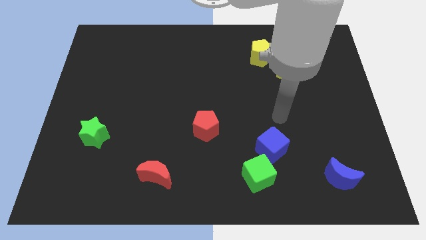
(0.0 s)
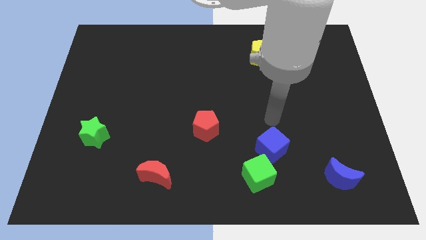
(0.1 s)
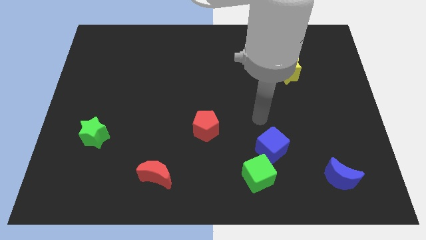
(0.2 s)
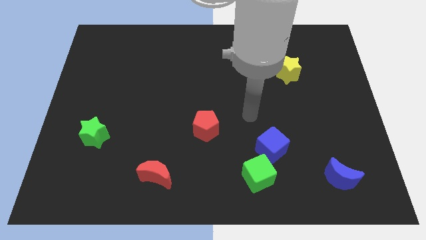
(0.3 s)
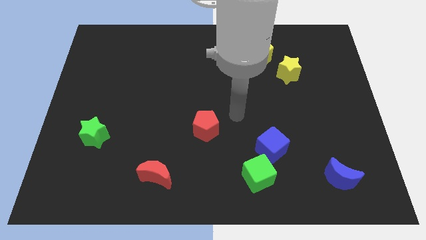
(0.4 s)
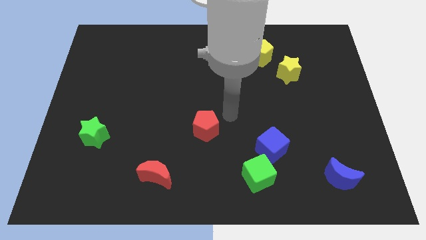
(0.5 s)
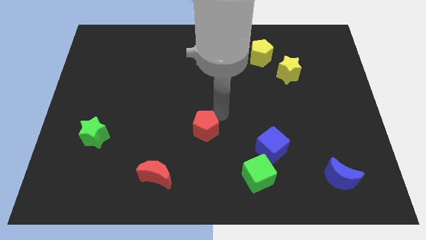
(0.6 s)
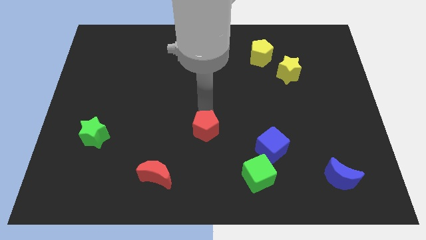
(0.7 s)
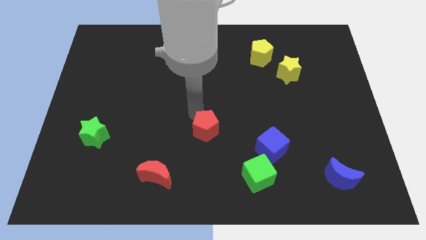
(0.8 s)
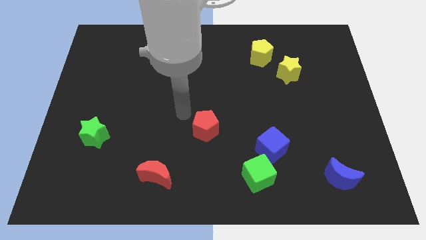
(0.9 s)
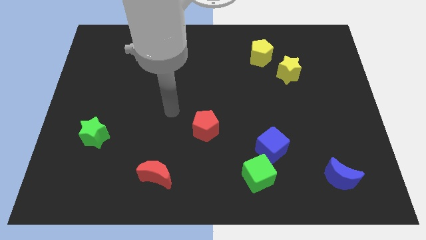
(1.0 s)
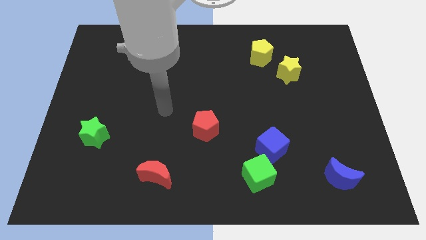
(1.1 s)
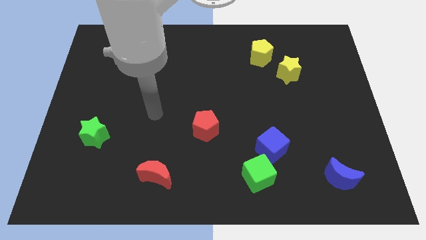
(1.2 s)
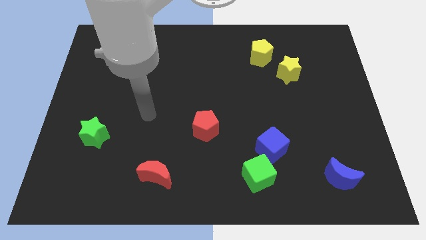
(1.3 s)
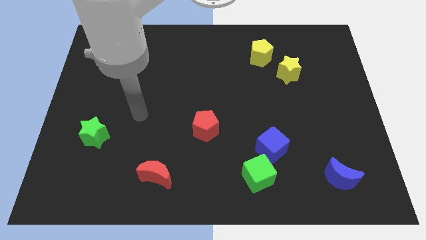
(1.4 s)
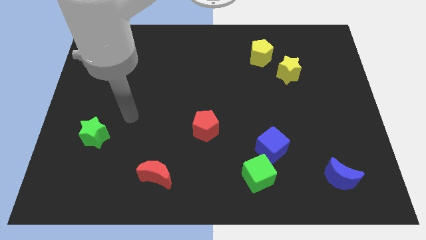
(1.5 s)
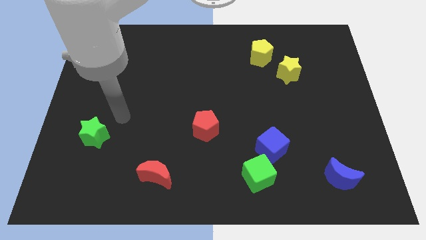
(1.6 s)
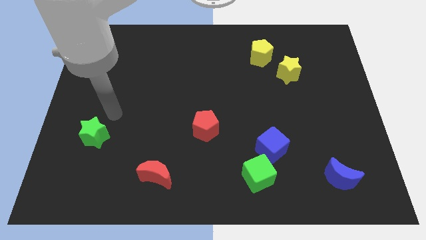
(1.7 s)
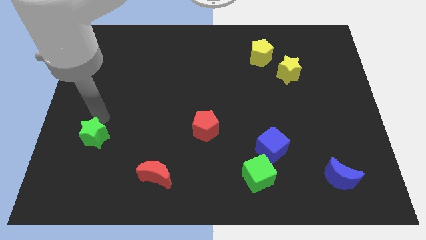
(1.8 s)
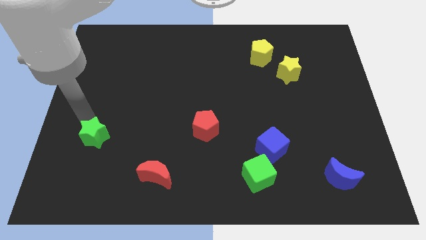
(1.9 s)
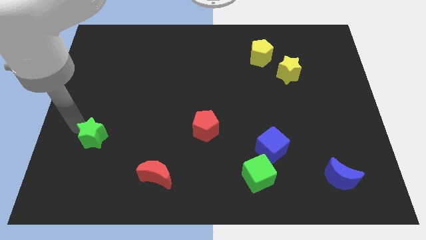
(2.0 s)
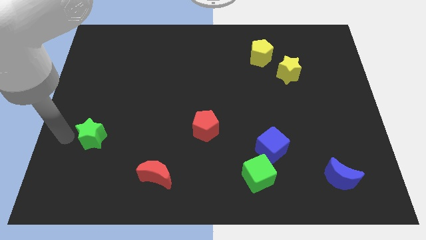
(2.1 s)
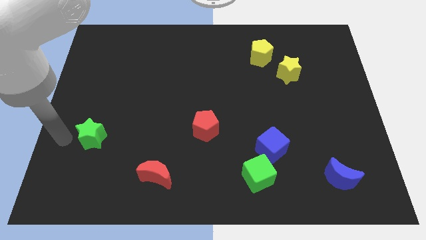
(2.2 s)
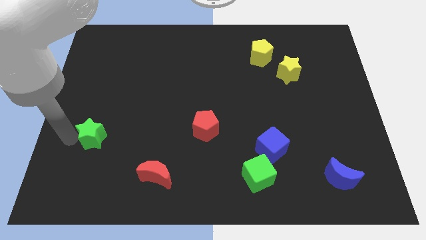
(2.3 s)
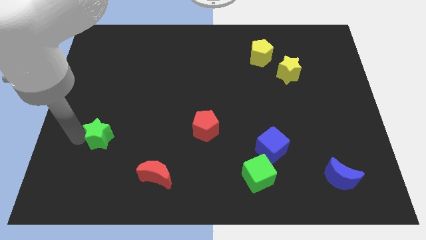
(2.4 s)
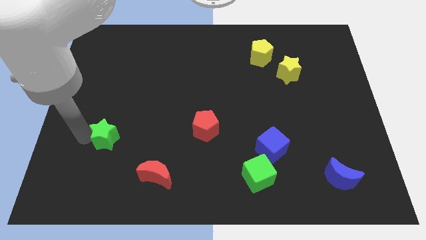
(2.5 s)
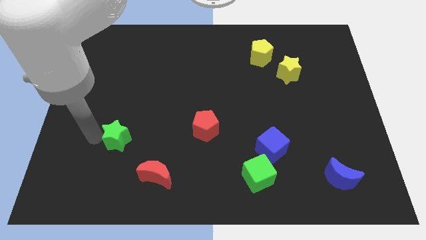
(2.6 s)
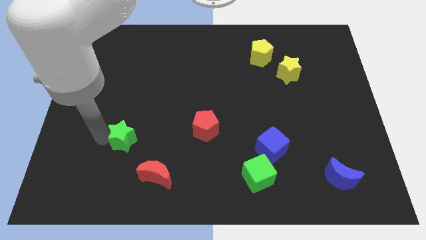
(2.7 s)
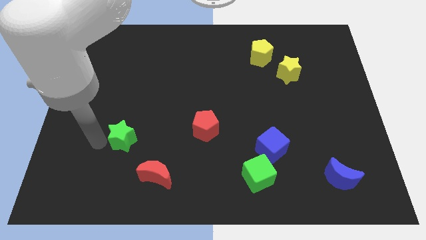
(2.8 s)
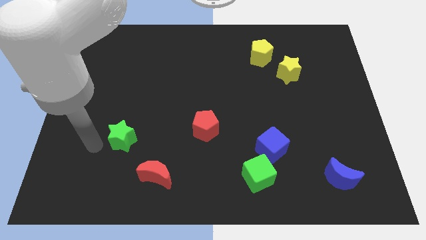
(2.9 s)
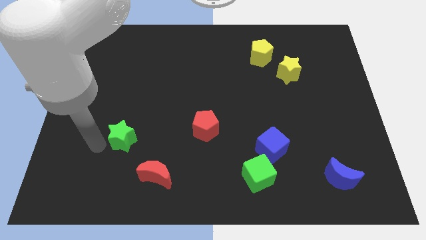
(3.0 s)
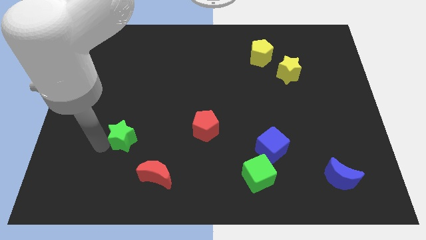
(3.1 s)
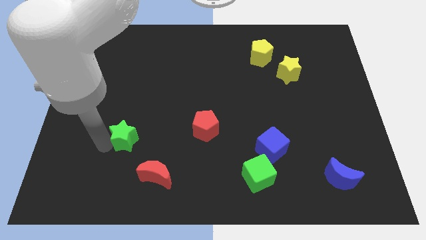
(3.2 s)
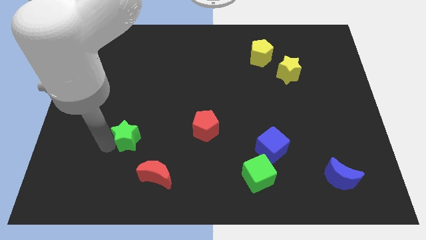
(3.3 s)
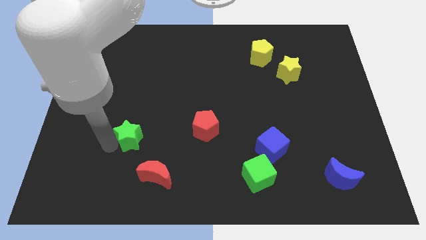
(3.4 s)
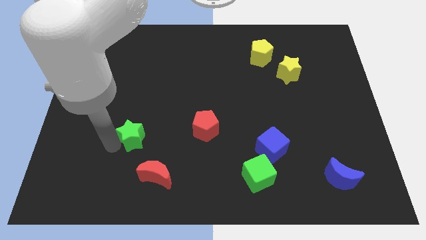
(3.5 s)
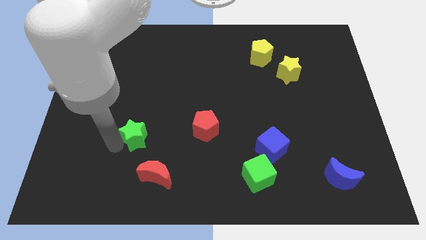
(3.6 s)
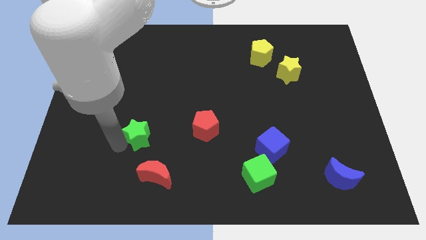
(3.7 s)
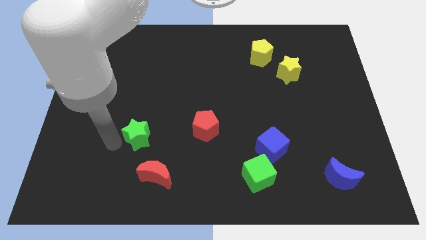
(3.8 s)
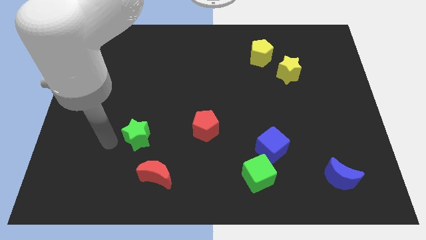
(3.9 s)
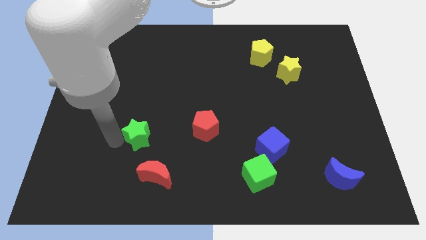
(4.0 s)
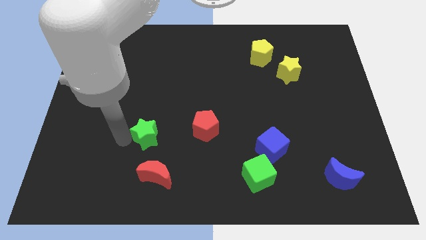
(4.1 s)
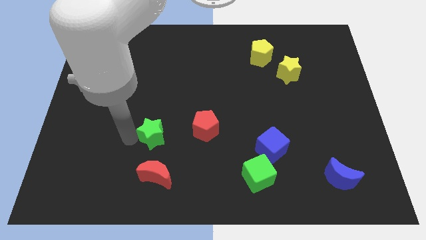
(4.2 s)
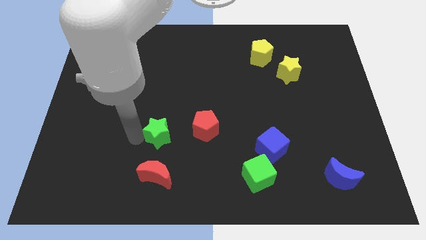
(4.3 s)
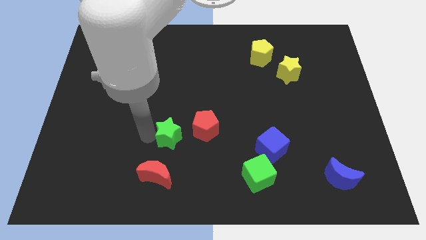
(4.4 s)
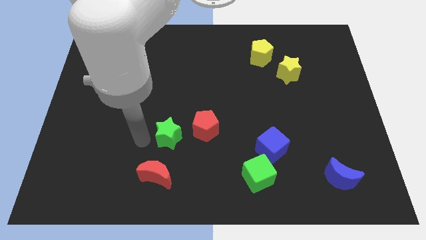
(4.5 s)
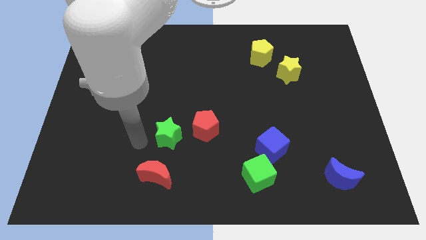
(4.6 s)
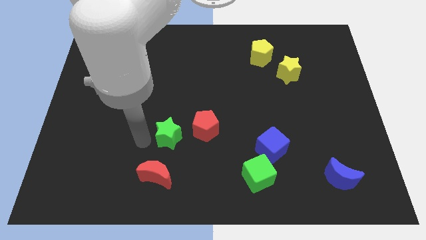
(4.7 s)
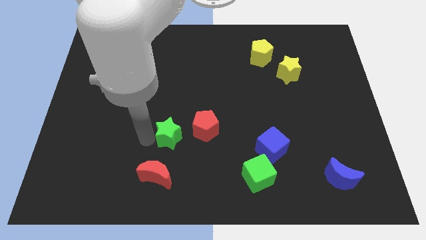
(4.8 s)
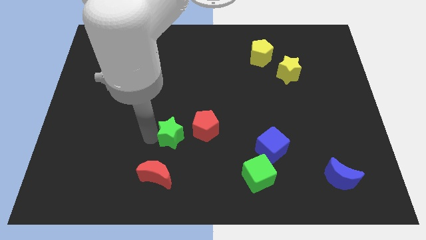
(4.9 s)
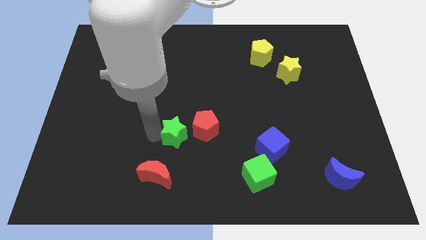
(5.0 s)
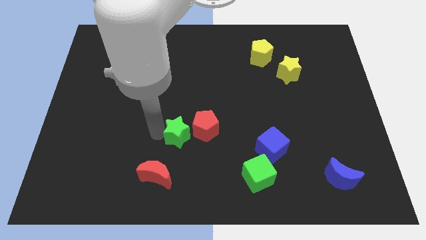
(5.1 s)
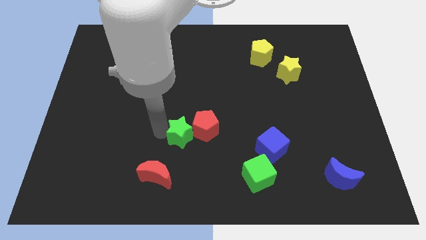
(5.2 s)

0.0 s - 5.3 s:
put the green star next to the red pentagon

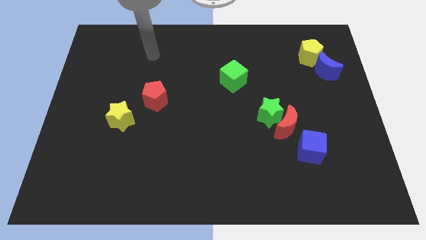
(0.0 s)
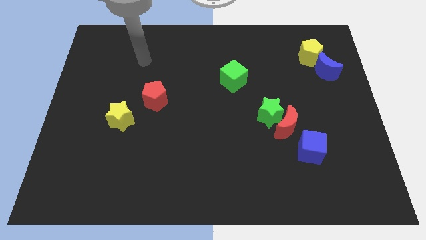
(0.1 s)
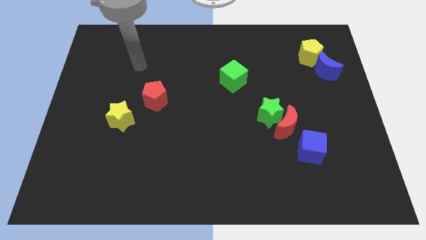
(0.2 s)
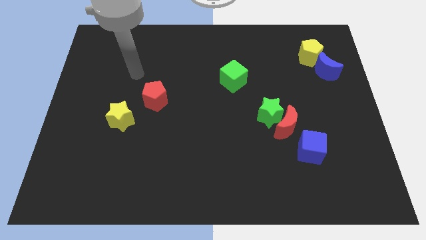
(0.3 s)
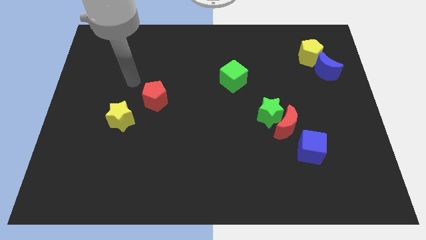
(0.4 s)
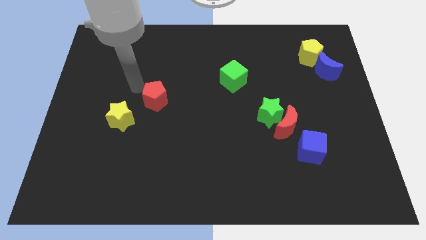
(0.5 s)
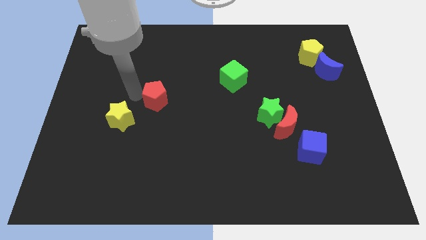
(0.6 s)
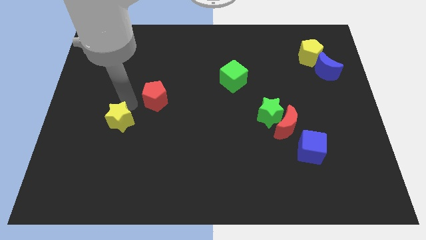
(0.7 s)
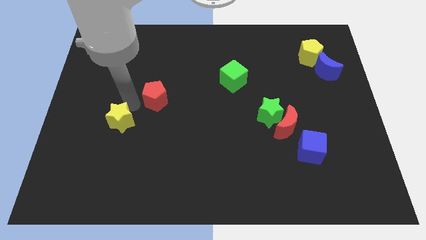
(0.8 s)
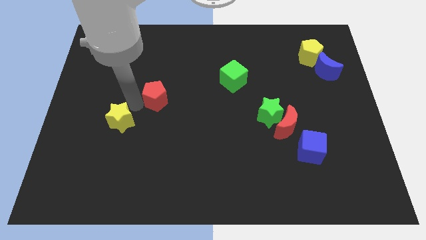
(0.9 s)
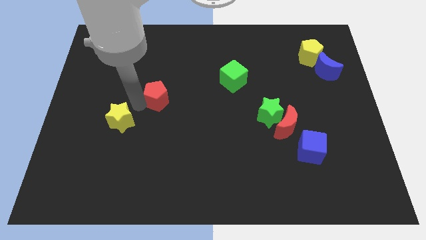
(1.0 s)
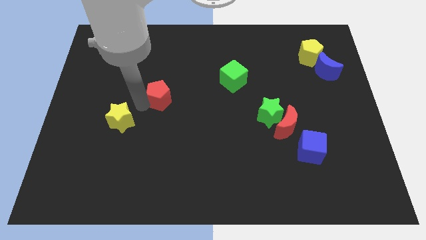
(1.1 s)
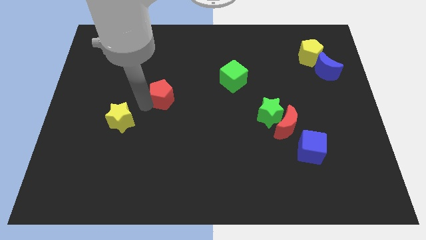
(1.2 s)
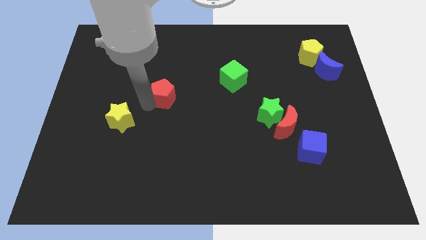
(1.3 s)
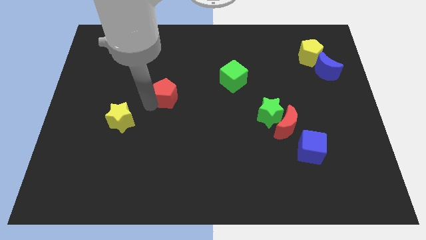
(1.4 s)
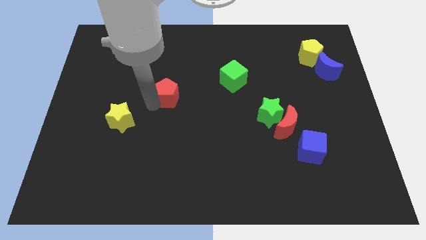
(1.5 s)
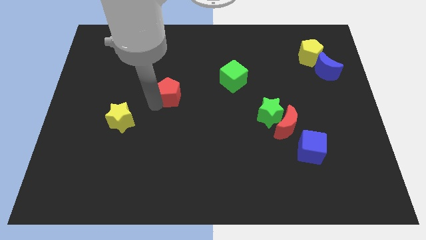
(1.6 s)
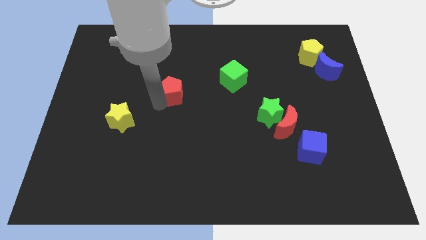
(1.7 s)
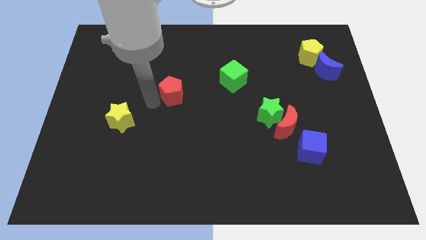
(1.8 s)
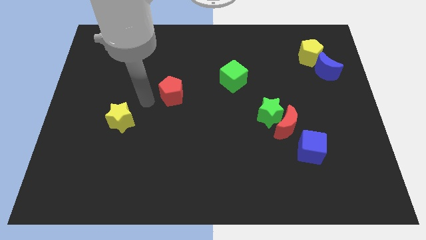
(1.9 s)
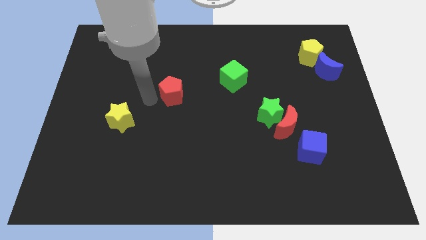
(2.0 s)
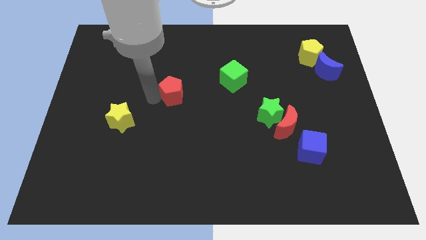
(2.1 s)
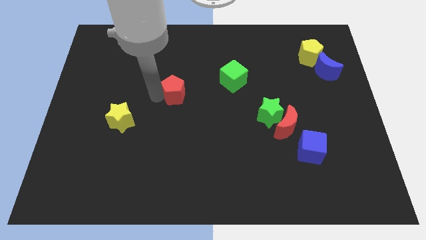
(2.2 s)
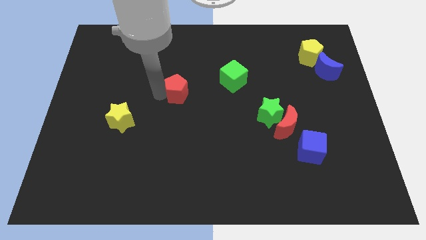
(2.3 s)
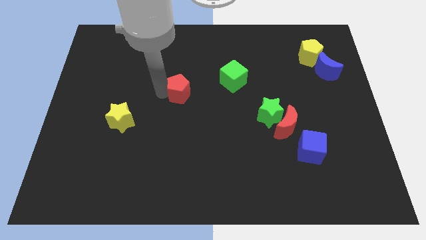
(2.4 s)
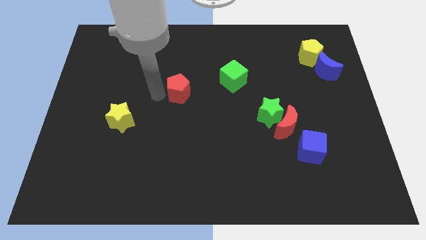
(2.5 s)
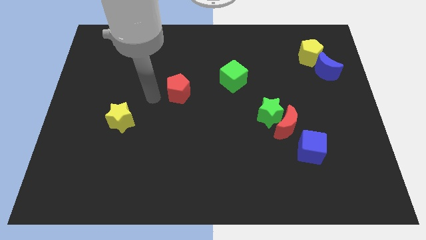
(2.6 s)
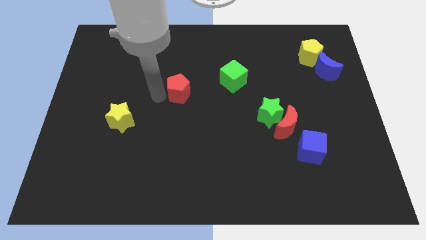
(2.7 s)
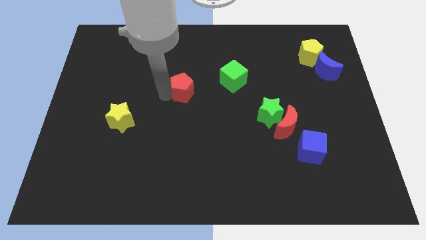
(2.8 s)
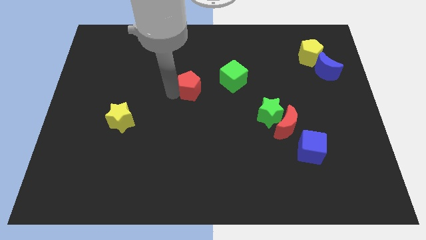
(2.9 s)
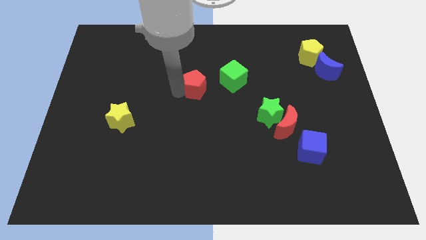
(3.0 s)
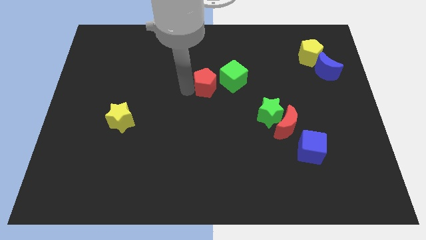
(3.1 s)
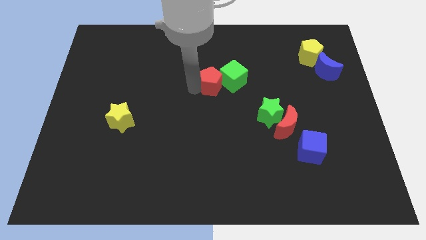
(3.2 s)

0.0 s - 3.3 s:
slide the red pentagon towards the green cube
